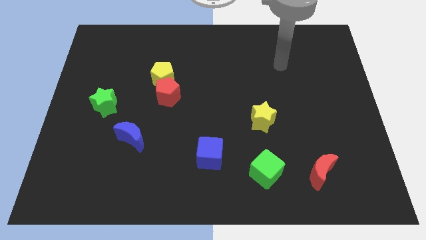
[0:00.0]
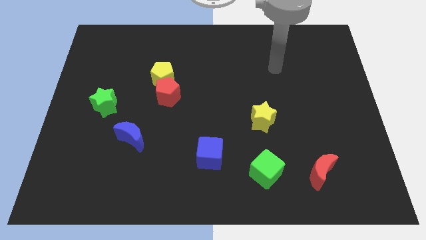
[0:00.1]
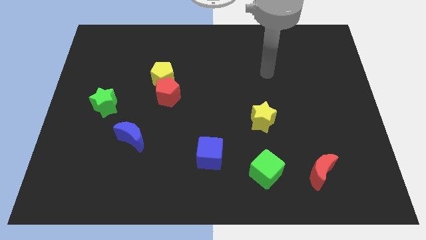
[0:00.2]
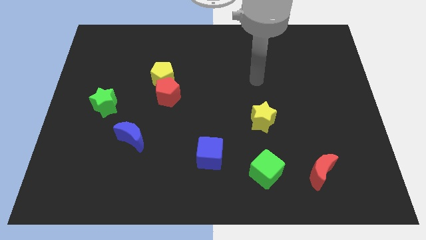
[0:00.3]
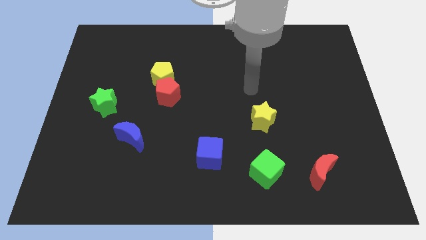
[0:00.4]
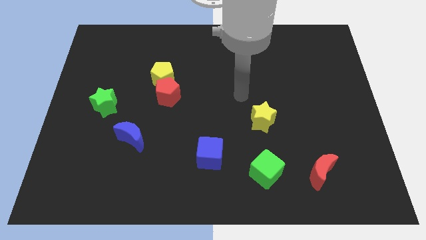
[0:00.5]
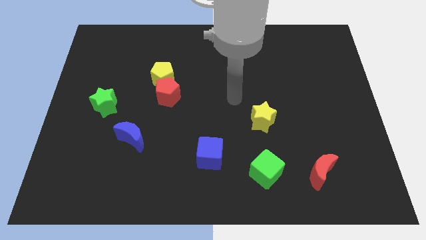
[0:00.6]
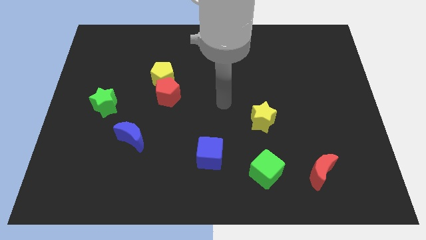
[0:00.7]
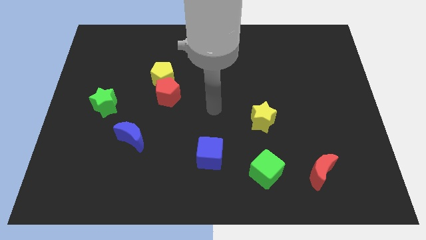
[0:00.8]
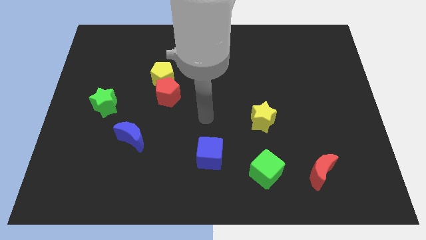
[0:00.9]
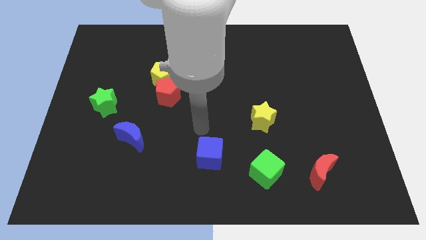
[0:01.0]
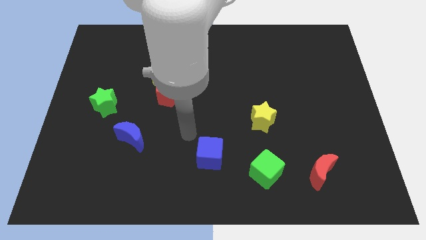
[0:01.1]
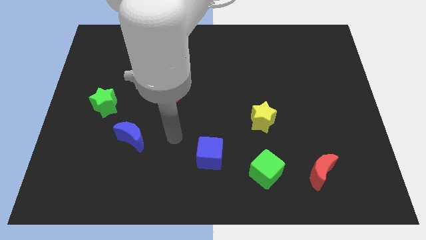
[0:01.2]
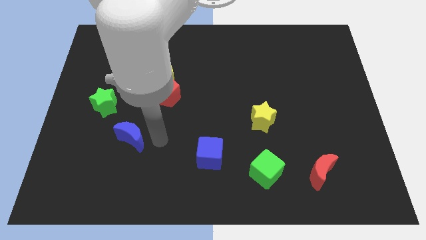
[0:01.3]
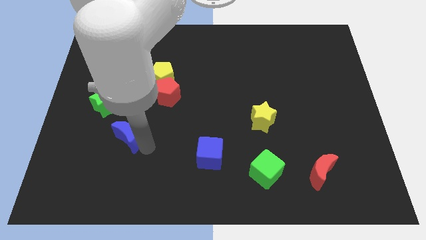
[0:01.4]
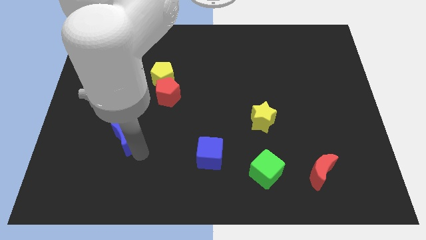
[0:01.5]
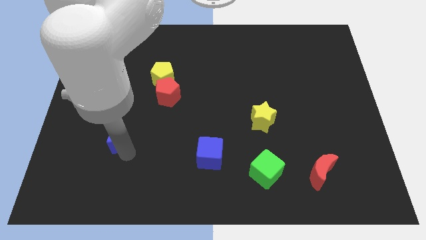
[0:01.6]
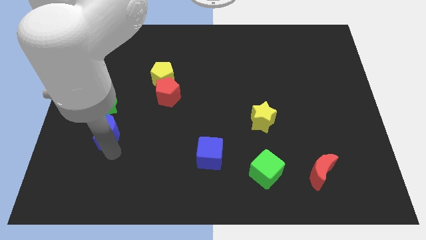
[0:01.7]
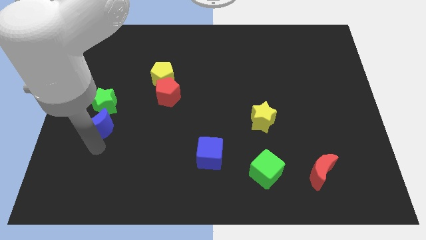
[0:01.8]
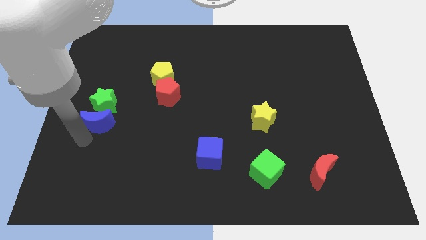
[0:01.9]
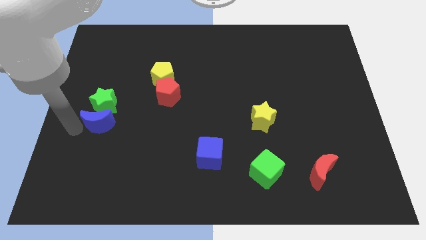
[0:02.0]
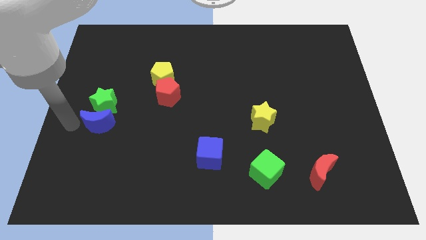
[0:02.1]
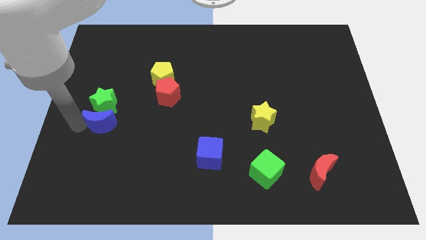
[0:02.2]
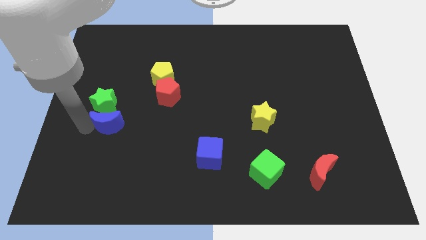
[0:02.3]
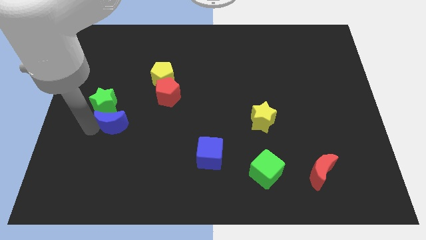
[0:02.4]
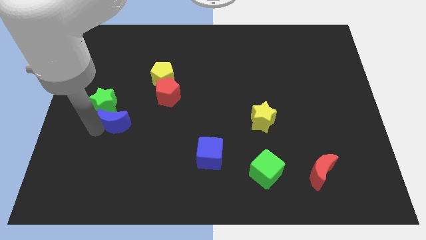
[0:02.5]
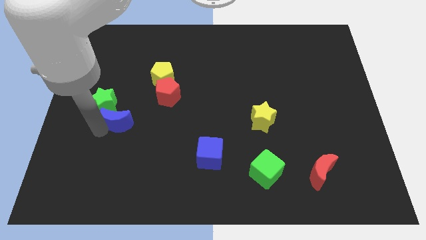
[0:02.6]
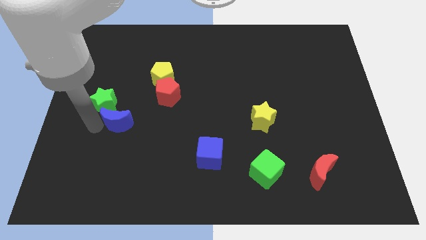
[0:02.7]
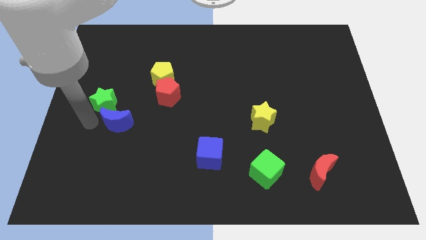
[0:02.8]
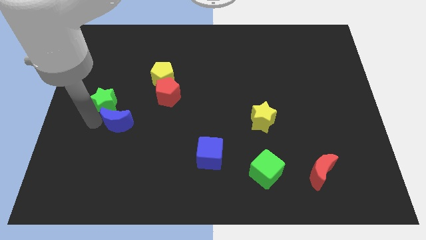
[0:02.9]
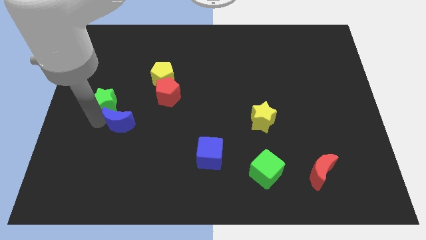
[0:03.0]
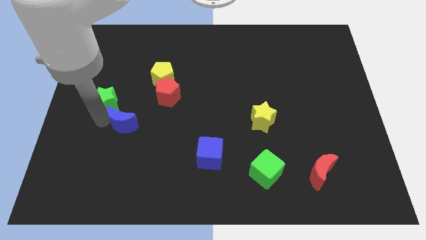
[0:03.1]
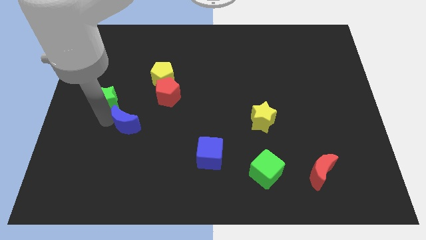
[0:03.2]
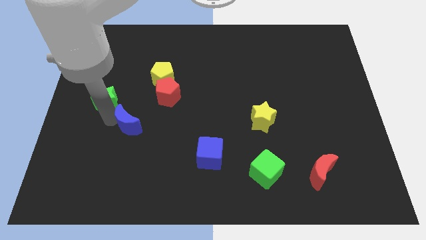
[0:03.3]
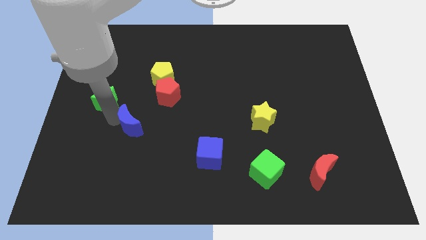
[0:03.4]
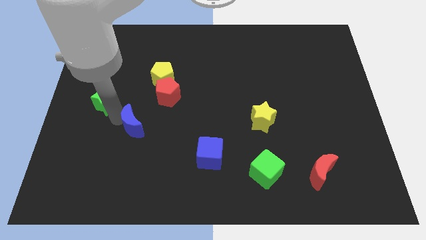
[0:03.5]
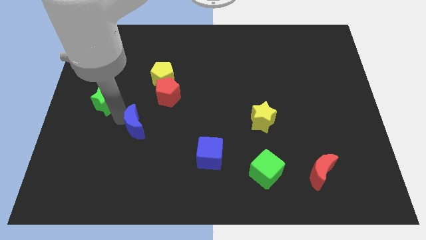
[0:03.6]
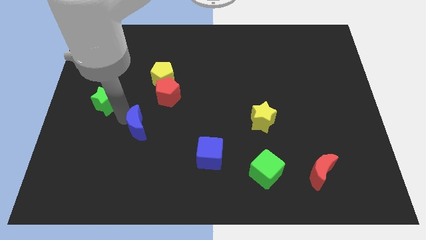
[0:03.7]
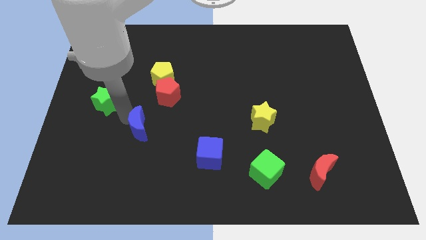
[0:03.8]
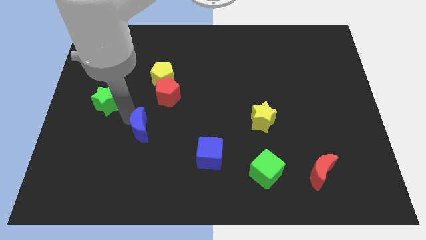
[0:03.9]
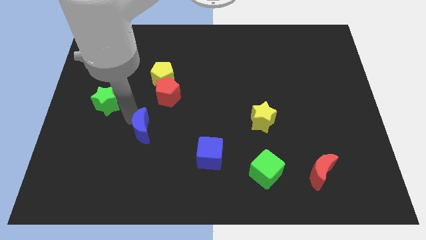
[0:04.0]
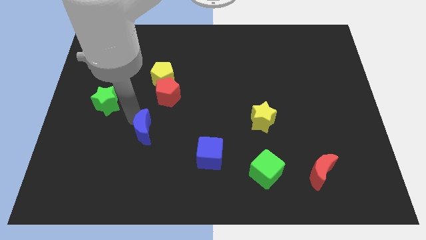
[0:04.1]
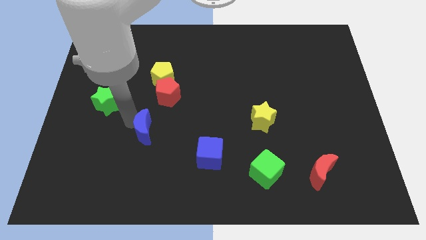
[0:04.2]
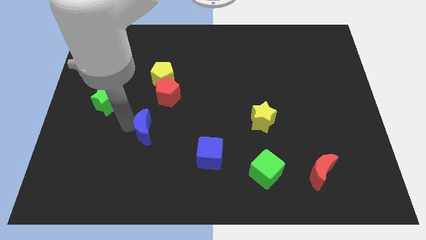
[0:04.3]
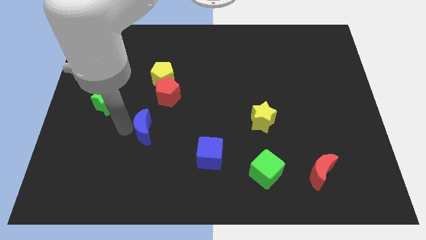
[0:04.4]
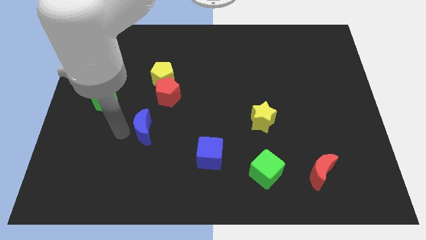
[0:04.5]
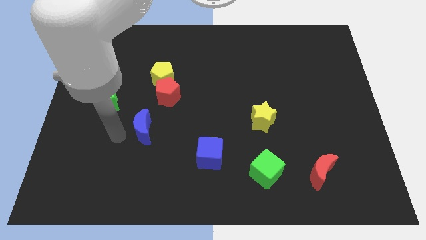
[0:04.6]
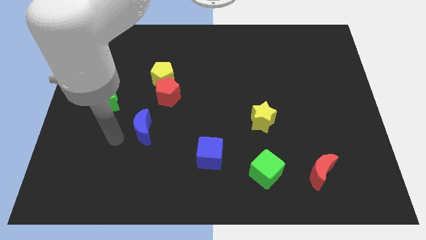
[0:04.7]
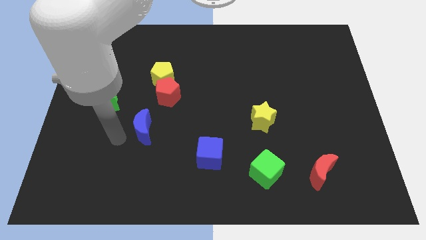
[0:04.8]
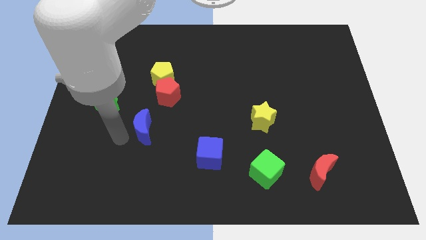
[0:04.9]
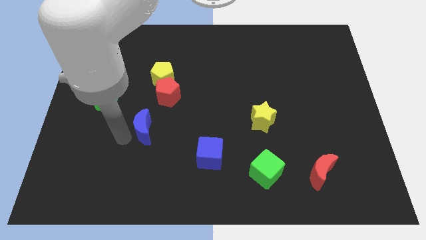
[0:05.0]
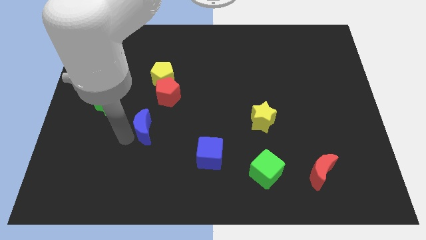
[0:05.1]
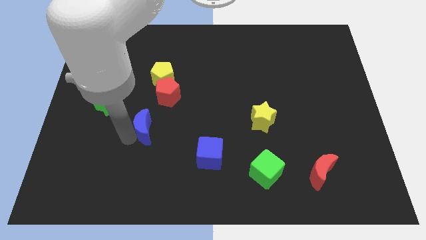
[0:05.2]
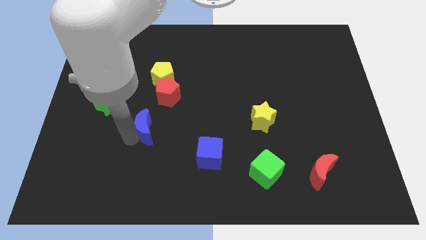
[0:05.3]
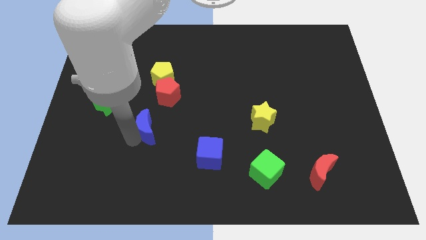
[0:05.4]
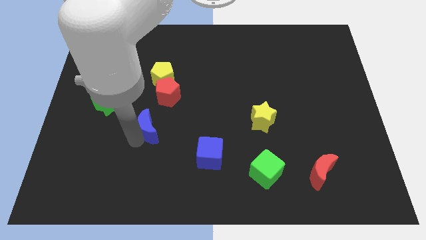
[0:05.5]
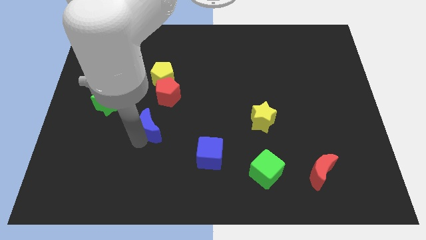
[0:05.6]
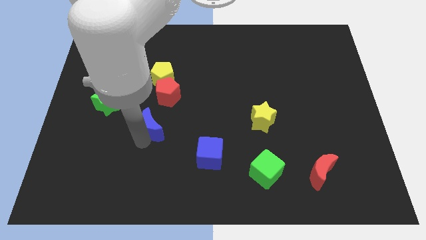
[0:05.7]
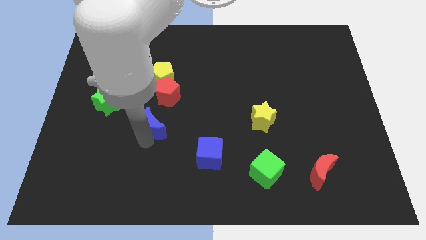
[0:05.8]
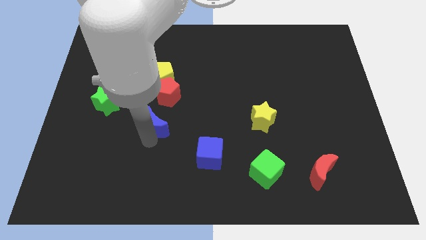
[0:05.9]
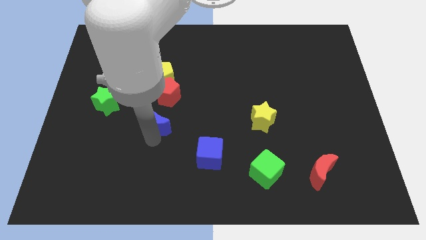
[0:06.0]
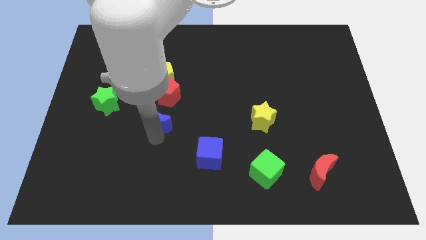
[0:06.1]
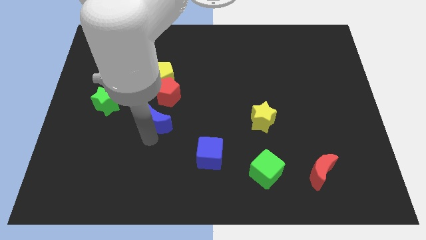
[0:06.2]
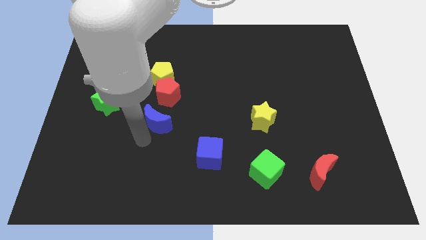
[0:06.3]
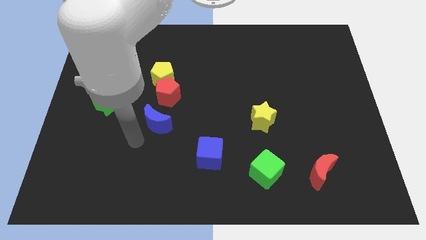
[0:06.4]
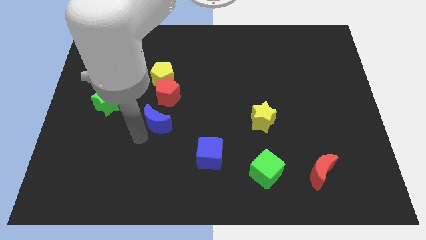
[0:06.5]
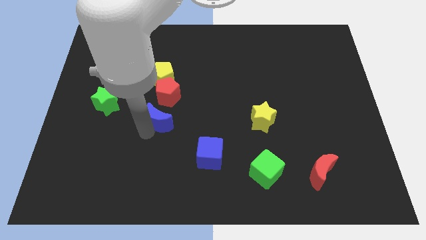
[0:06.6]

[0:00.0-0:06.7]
move the blue moon diagonally up and to the right a little bit

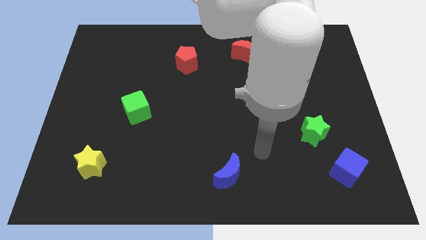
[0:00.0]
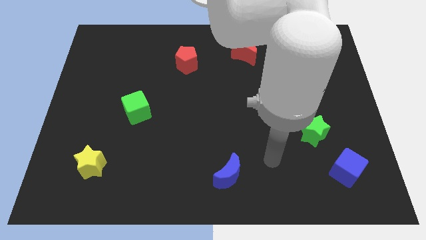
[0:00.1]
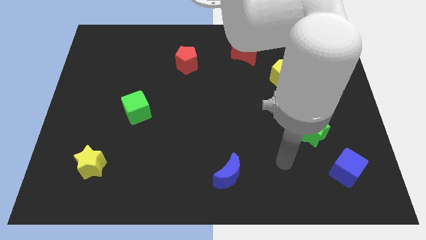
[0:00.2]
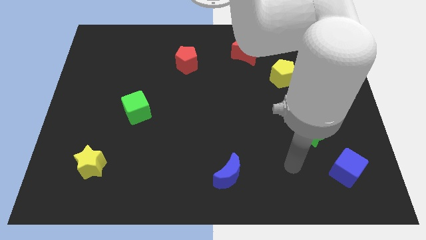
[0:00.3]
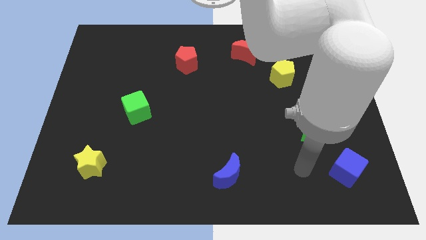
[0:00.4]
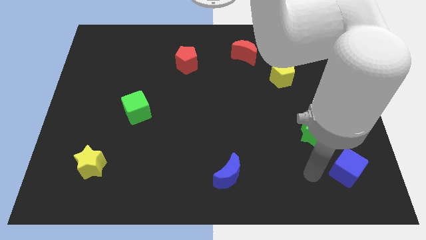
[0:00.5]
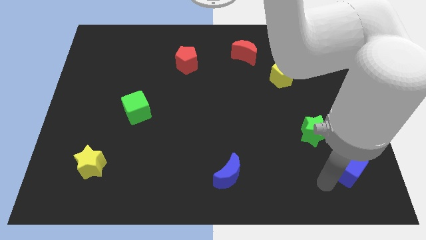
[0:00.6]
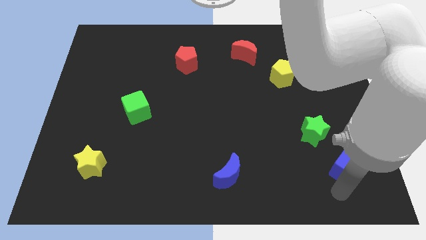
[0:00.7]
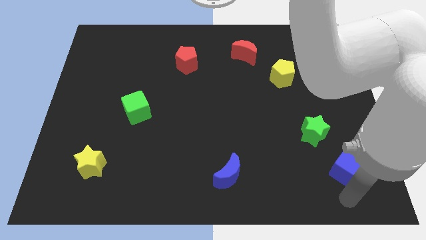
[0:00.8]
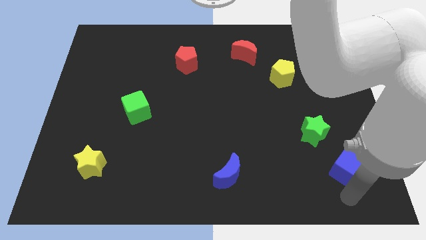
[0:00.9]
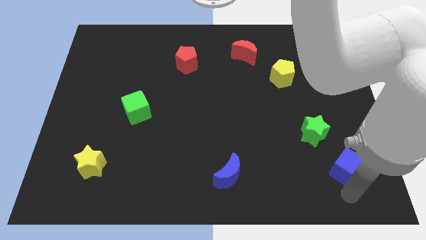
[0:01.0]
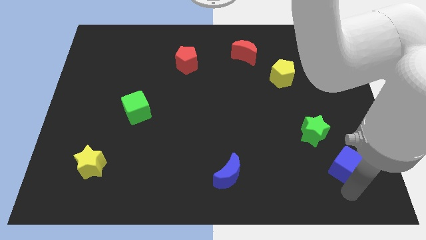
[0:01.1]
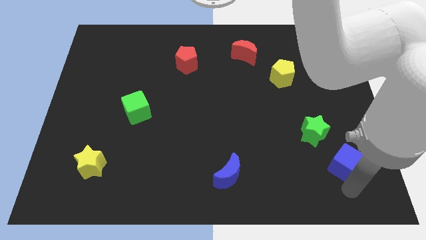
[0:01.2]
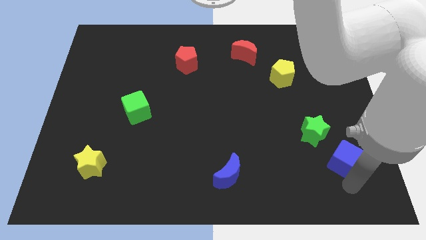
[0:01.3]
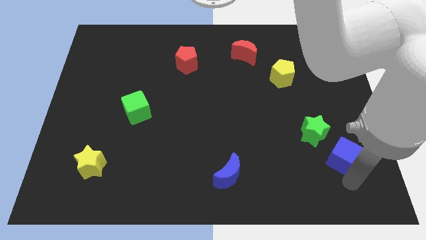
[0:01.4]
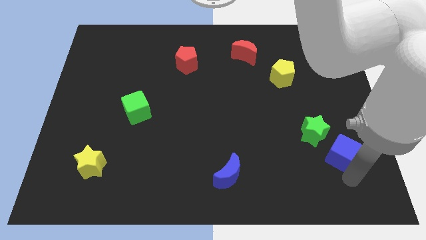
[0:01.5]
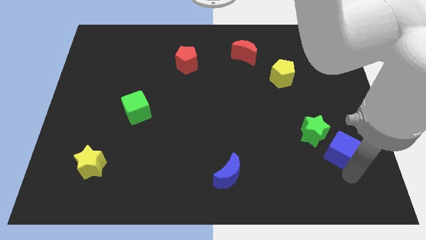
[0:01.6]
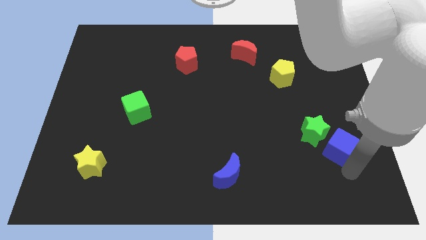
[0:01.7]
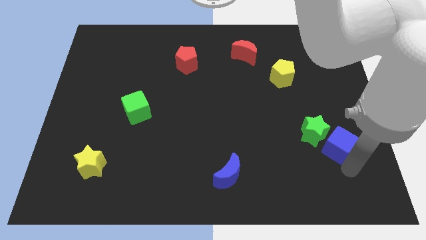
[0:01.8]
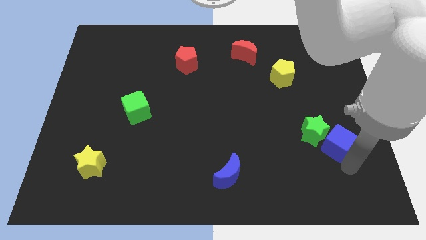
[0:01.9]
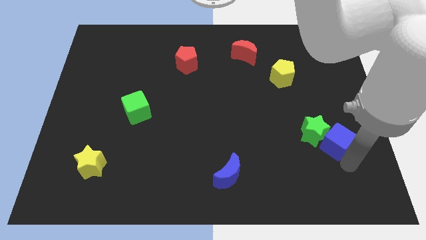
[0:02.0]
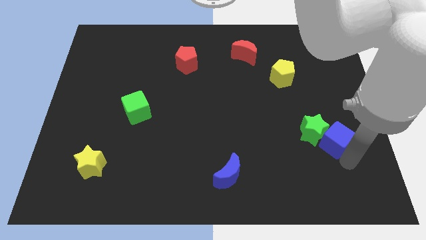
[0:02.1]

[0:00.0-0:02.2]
push the blue cube a little up
